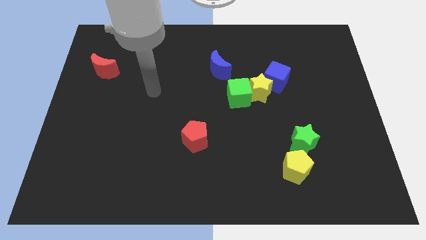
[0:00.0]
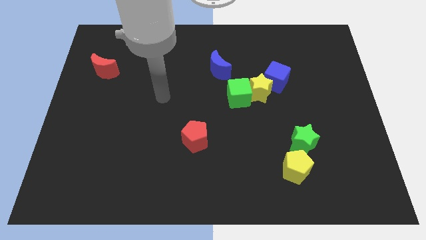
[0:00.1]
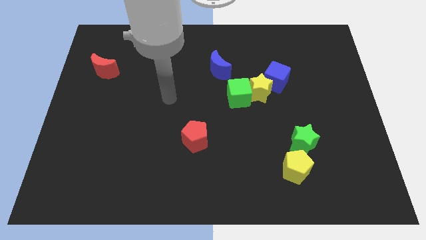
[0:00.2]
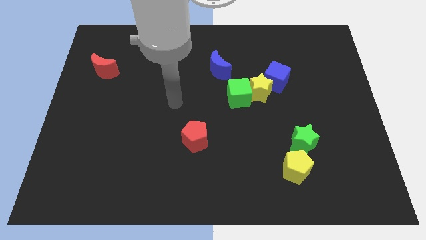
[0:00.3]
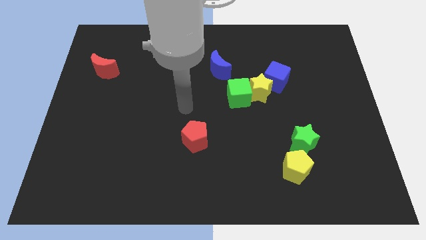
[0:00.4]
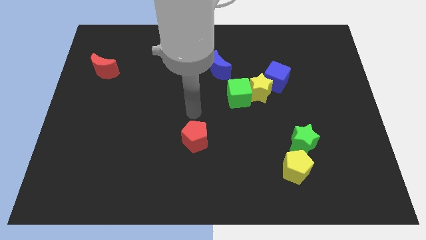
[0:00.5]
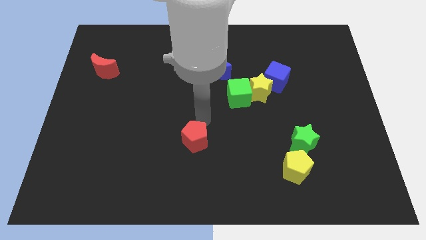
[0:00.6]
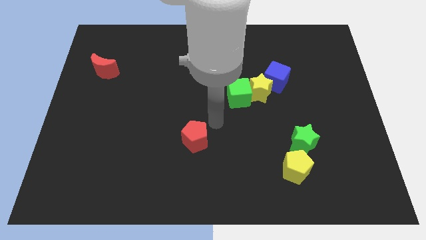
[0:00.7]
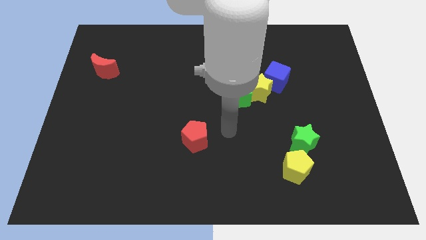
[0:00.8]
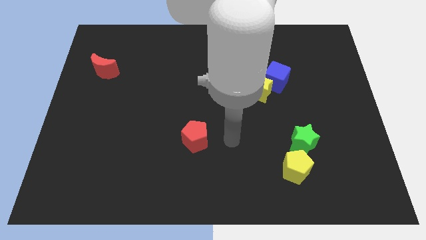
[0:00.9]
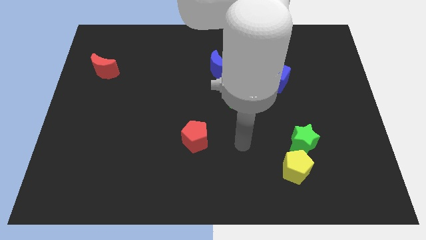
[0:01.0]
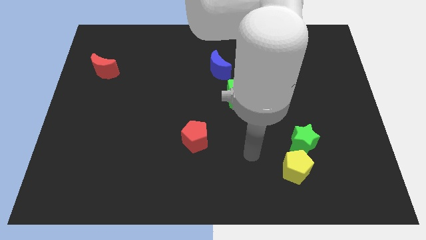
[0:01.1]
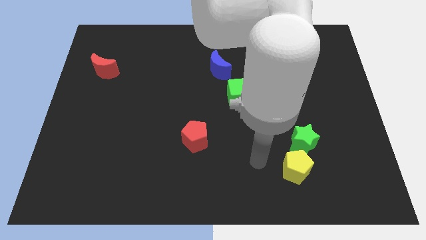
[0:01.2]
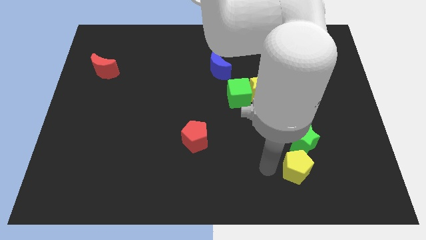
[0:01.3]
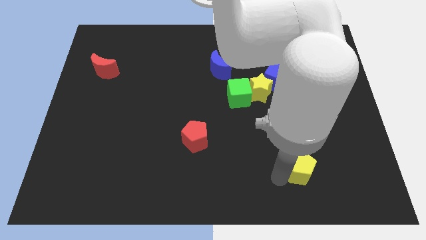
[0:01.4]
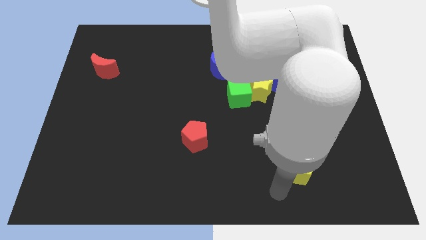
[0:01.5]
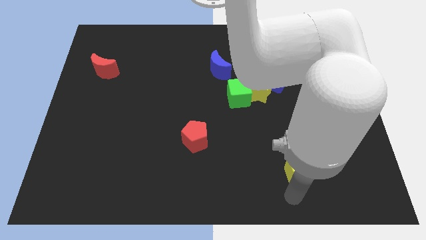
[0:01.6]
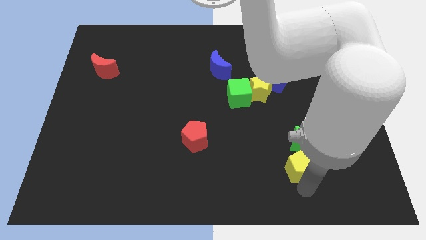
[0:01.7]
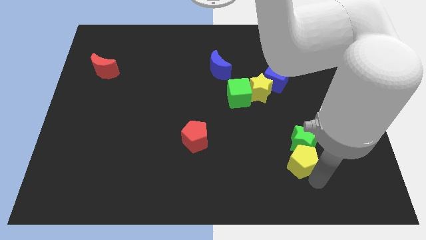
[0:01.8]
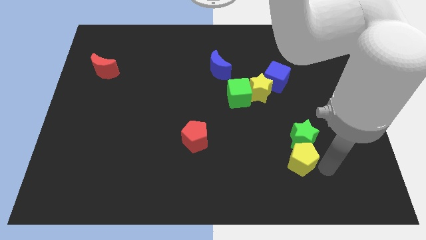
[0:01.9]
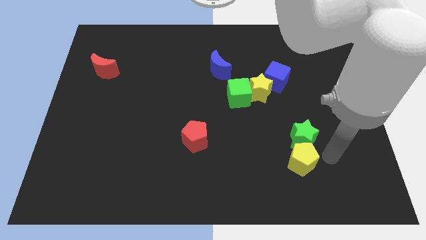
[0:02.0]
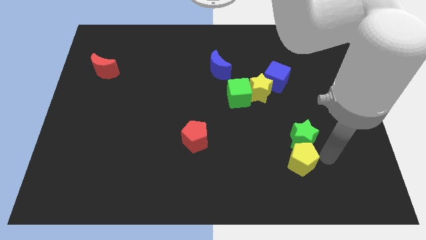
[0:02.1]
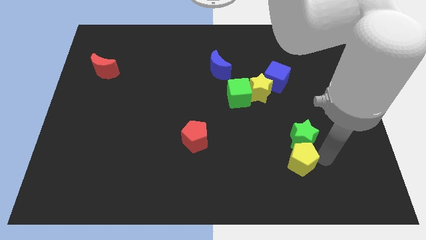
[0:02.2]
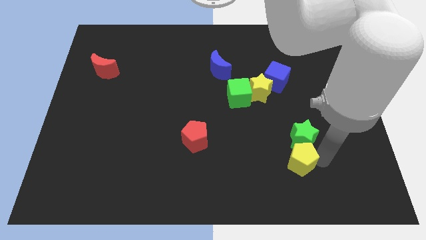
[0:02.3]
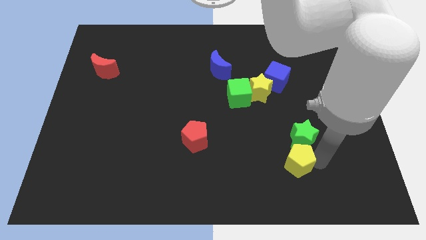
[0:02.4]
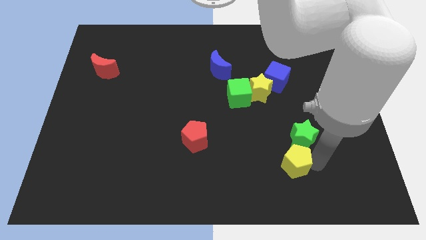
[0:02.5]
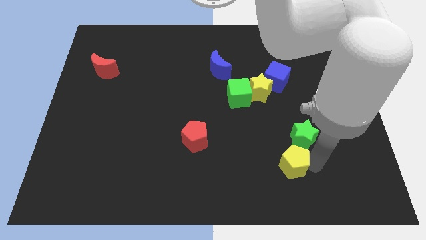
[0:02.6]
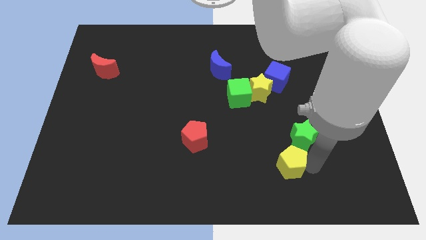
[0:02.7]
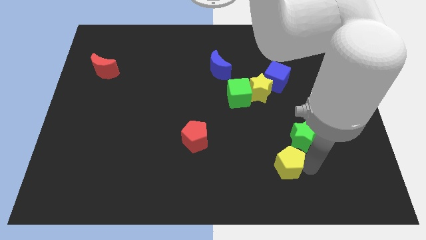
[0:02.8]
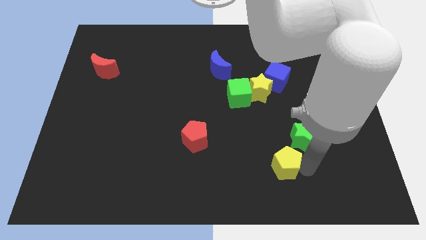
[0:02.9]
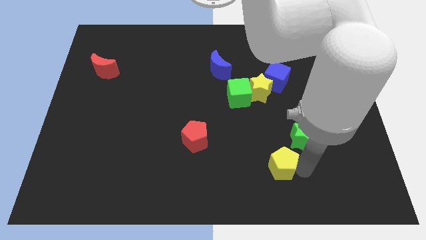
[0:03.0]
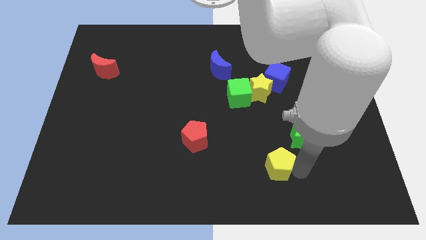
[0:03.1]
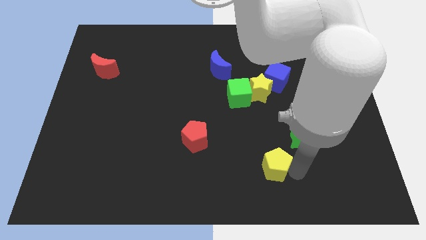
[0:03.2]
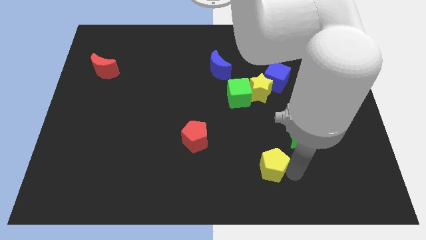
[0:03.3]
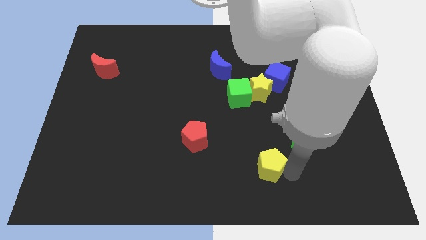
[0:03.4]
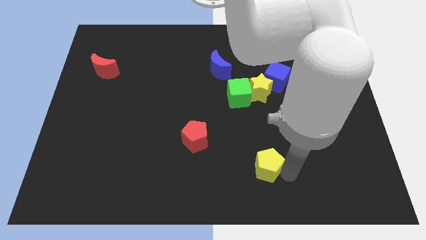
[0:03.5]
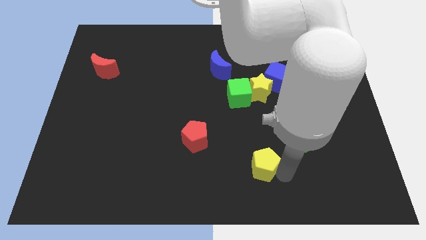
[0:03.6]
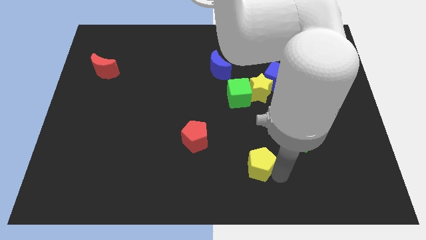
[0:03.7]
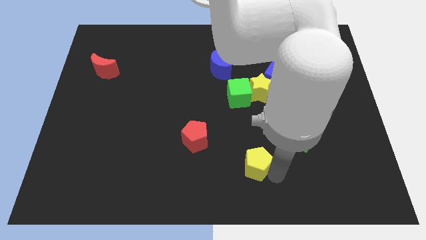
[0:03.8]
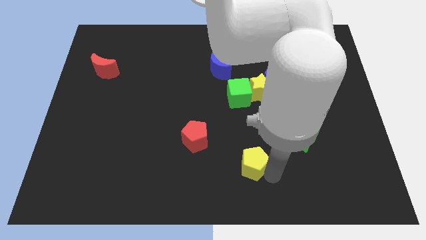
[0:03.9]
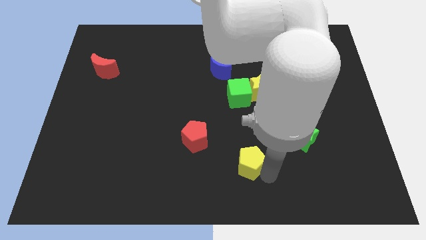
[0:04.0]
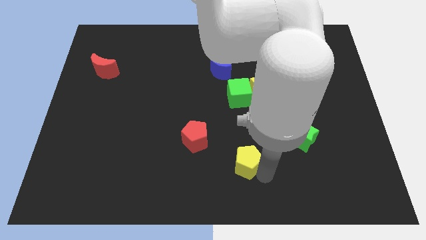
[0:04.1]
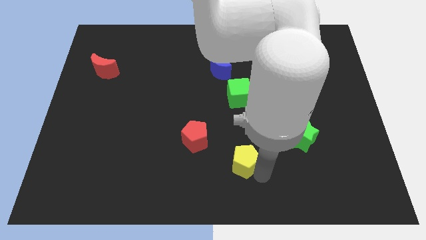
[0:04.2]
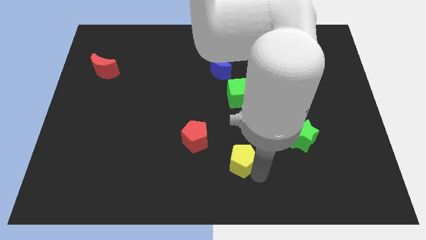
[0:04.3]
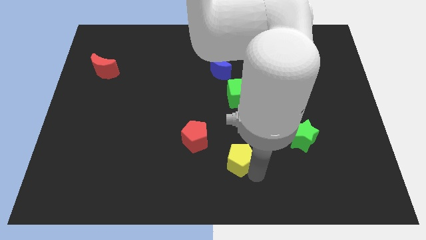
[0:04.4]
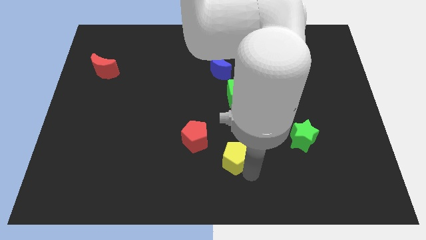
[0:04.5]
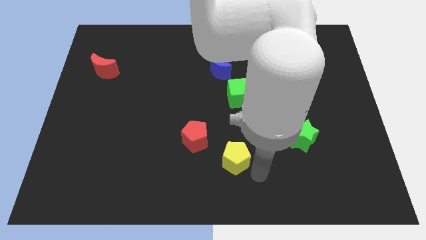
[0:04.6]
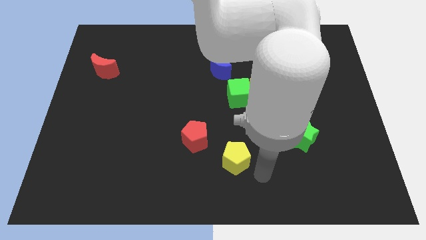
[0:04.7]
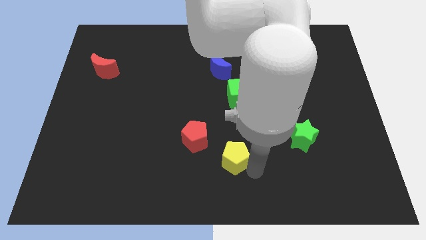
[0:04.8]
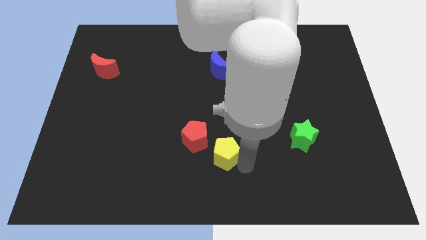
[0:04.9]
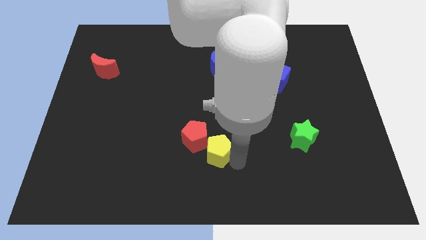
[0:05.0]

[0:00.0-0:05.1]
push the yellow pentagon close to the red pentagon

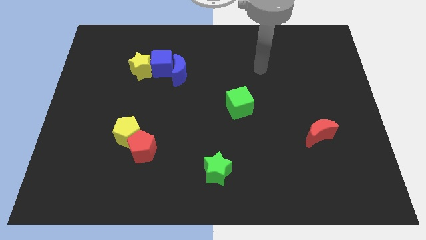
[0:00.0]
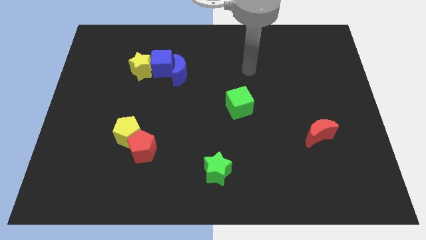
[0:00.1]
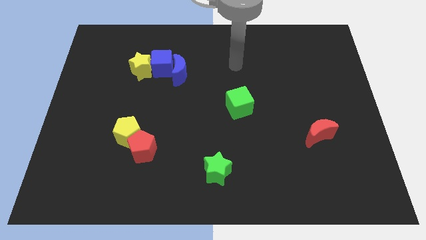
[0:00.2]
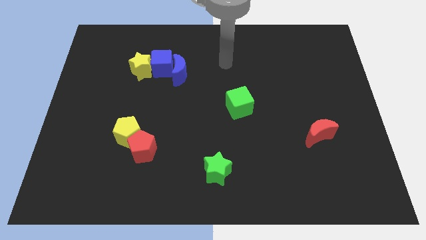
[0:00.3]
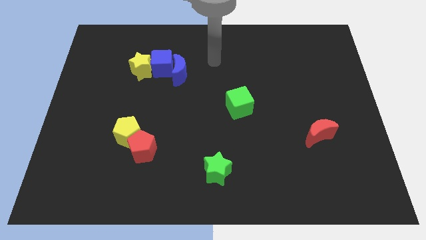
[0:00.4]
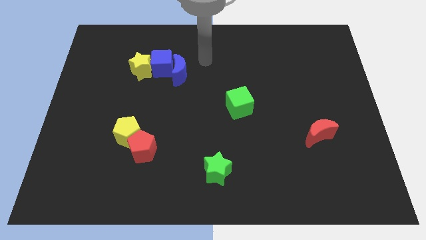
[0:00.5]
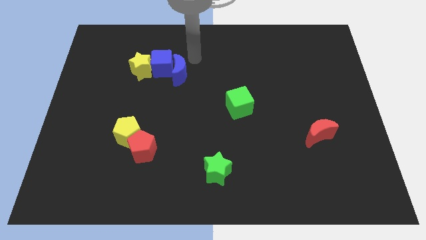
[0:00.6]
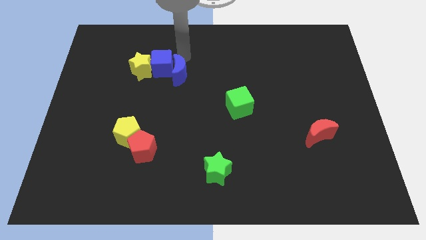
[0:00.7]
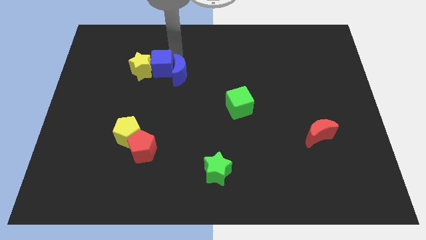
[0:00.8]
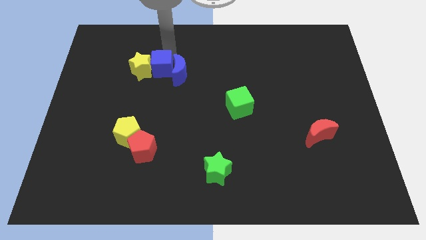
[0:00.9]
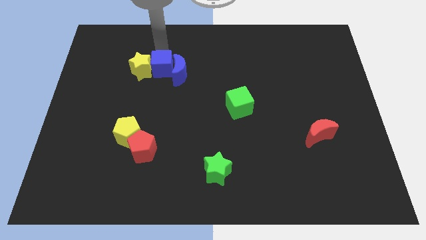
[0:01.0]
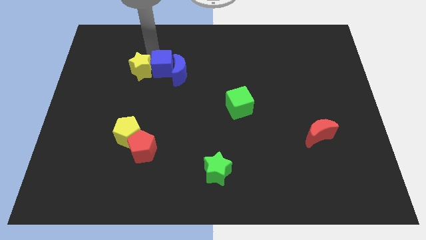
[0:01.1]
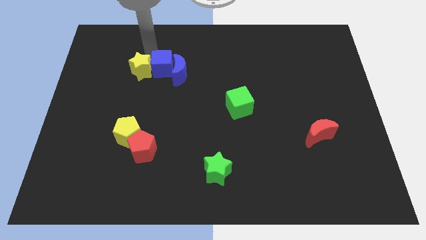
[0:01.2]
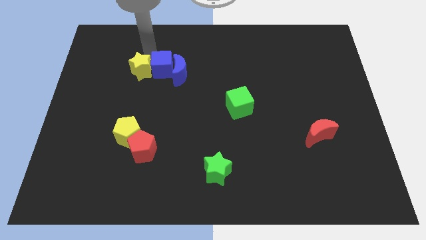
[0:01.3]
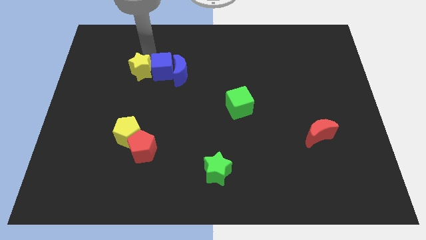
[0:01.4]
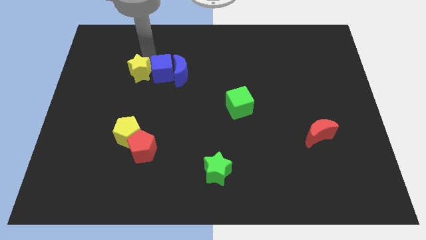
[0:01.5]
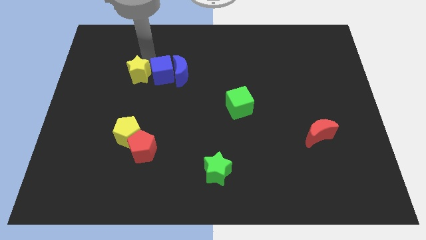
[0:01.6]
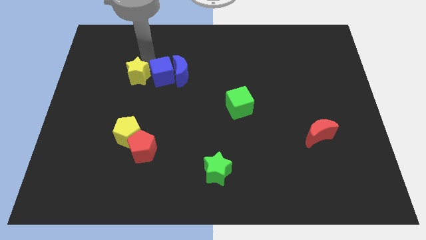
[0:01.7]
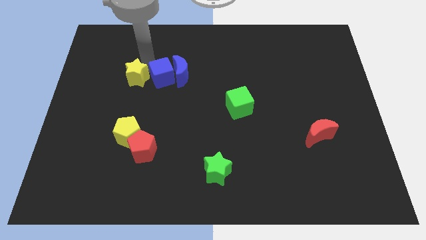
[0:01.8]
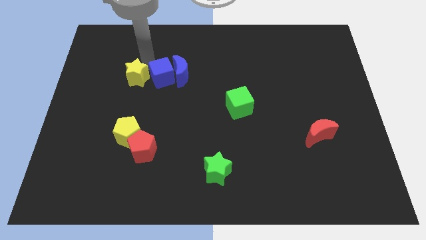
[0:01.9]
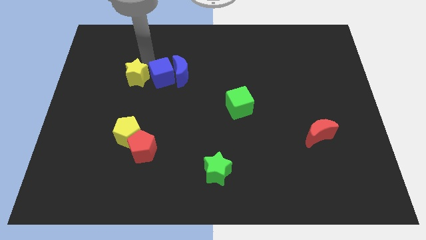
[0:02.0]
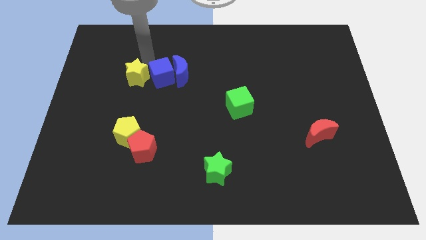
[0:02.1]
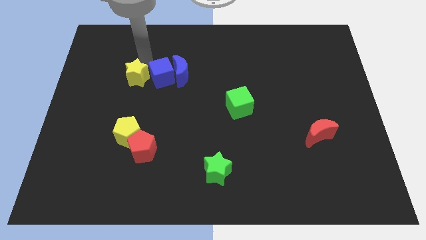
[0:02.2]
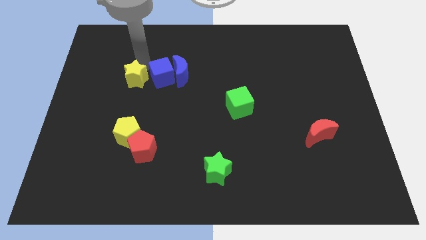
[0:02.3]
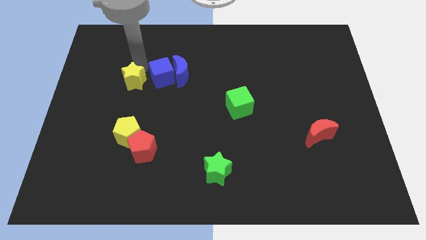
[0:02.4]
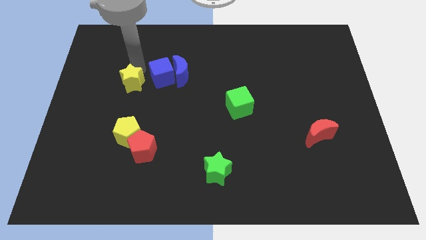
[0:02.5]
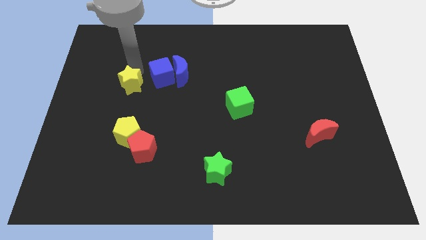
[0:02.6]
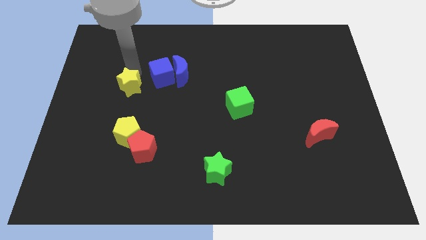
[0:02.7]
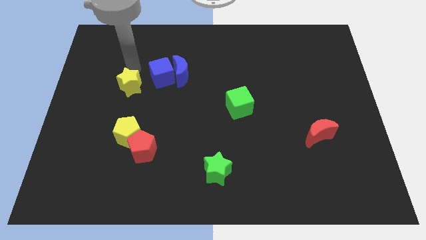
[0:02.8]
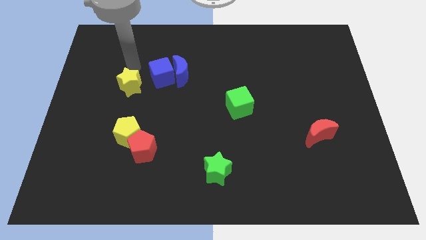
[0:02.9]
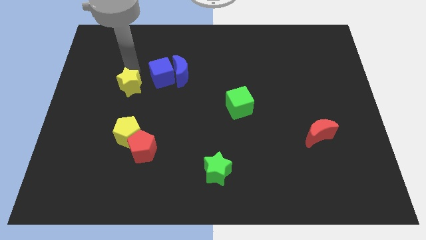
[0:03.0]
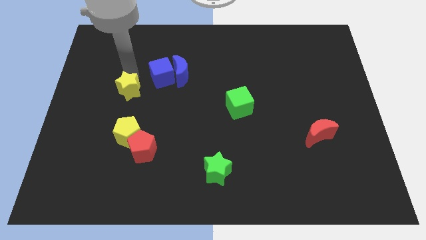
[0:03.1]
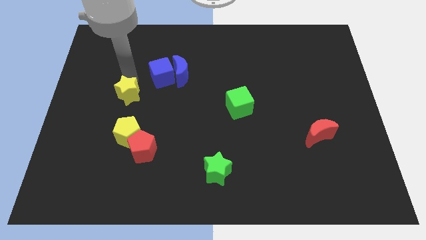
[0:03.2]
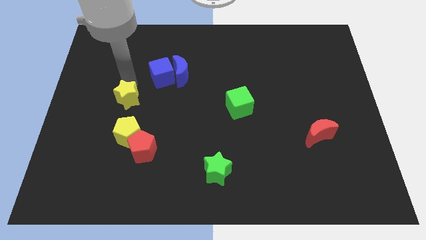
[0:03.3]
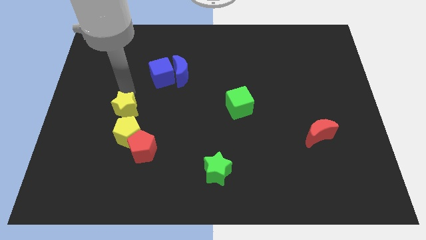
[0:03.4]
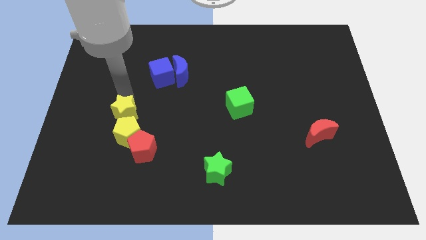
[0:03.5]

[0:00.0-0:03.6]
push the yellow star close to the yellow pentagon
